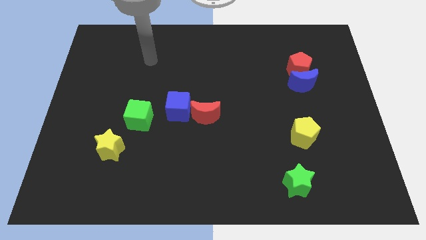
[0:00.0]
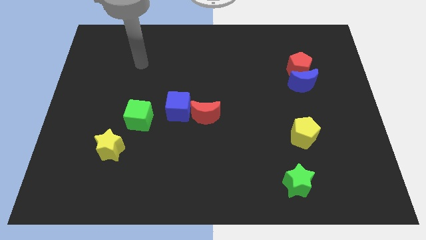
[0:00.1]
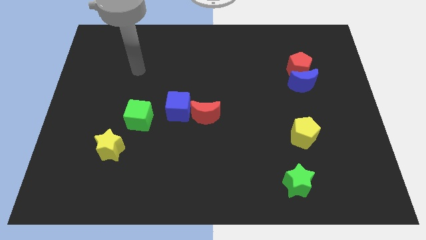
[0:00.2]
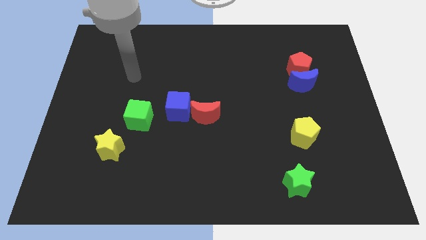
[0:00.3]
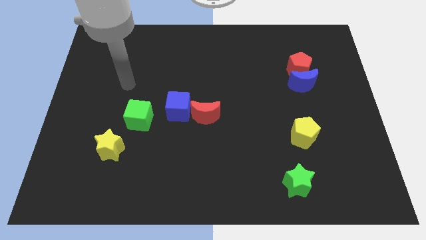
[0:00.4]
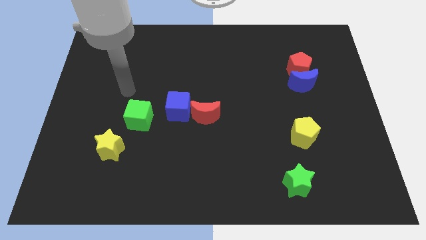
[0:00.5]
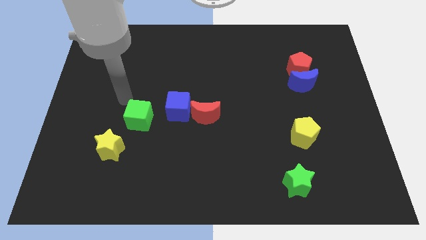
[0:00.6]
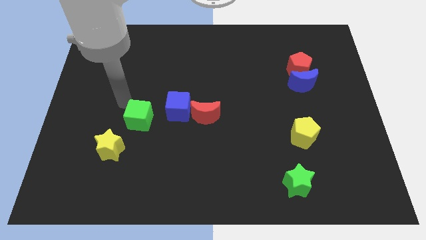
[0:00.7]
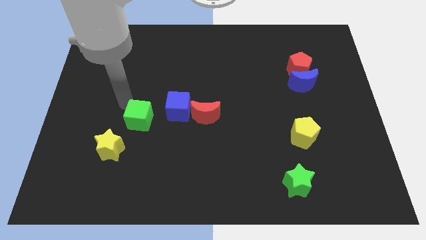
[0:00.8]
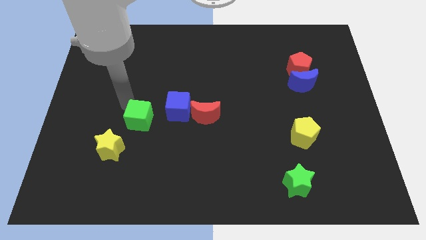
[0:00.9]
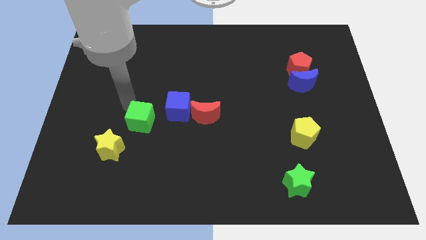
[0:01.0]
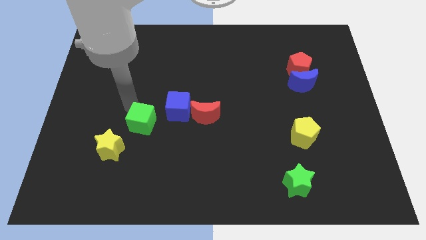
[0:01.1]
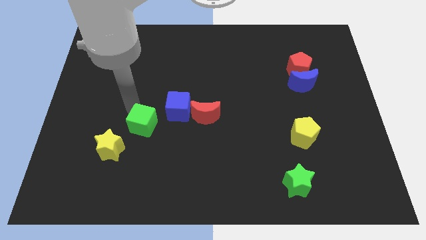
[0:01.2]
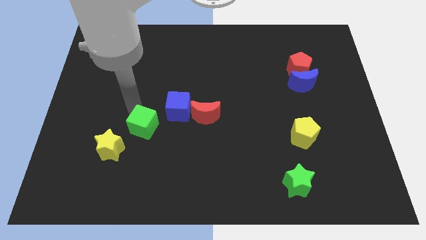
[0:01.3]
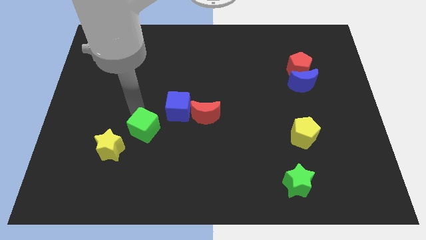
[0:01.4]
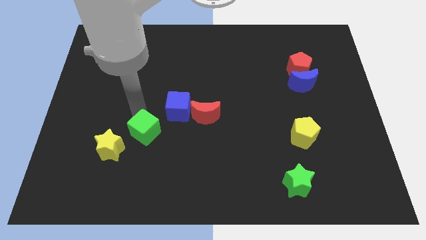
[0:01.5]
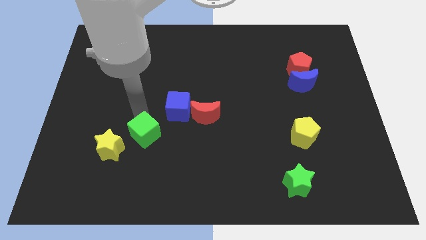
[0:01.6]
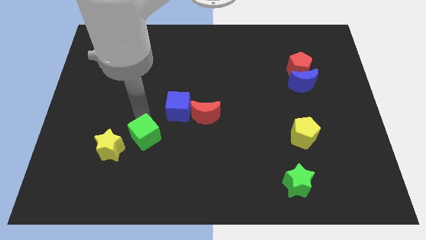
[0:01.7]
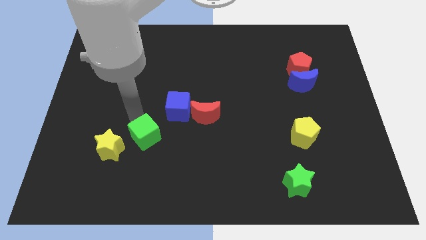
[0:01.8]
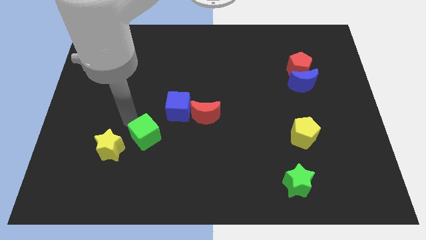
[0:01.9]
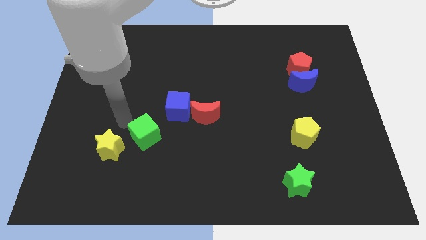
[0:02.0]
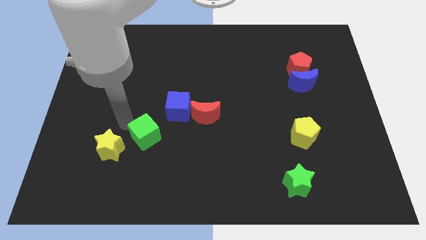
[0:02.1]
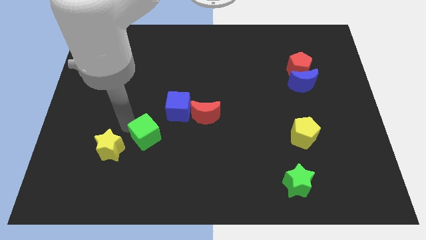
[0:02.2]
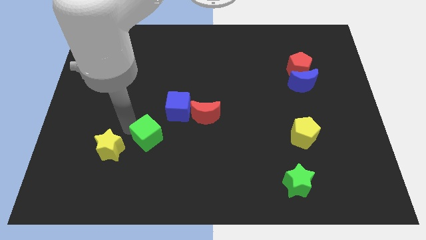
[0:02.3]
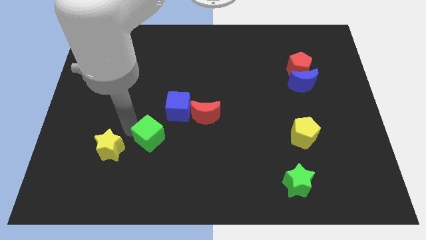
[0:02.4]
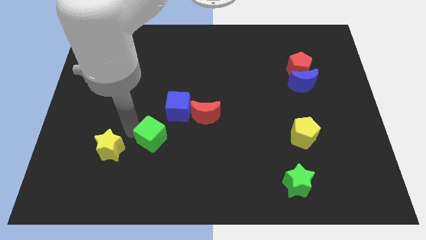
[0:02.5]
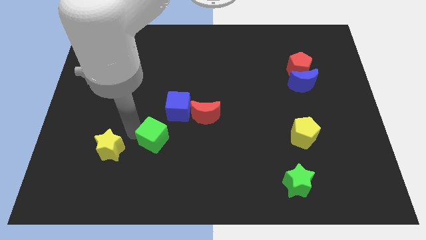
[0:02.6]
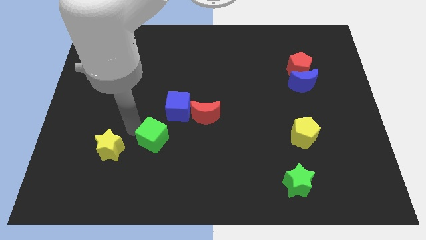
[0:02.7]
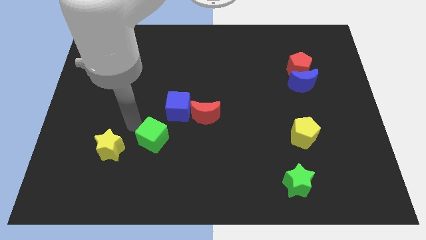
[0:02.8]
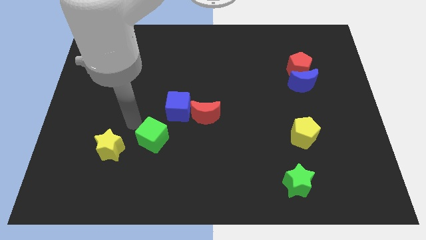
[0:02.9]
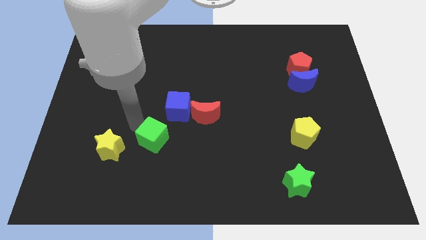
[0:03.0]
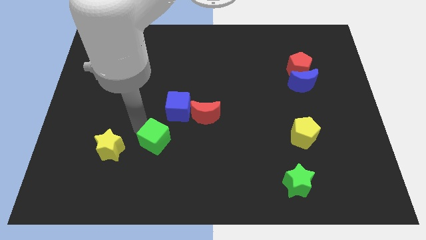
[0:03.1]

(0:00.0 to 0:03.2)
slightly move the green cube diagonally downwards and to the right

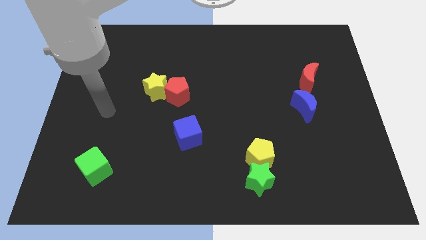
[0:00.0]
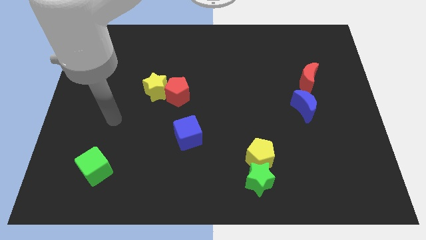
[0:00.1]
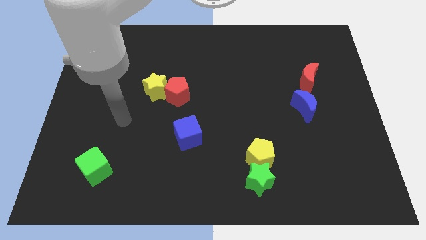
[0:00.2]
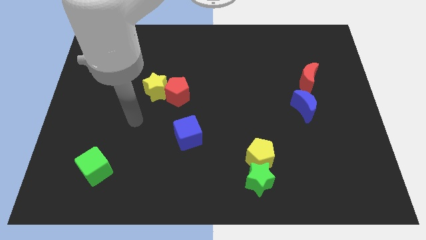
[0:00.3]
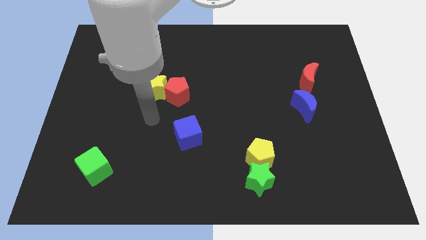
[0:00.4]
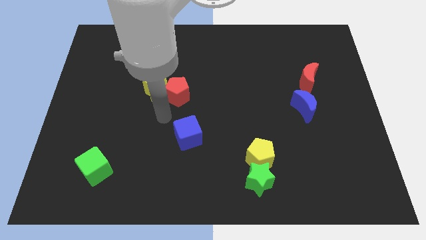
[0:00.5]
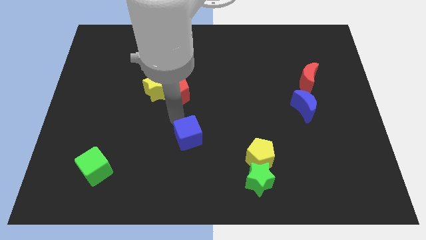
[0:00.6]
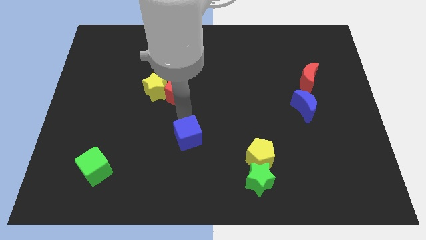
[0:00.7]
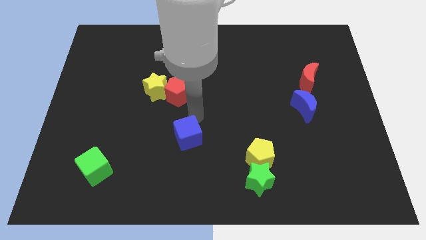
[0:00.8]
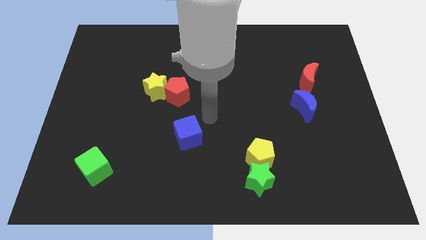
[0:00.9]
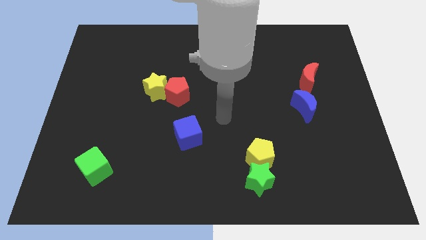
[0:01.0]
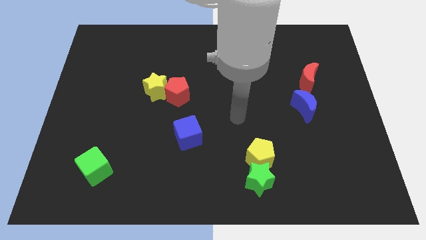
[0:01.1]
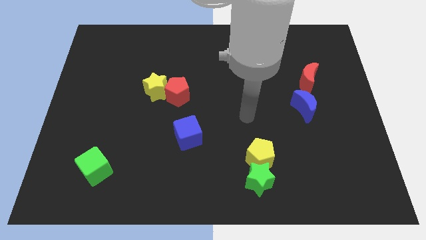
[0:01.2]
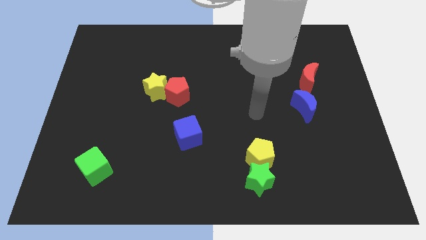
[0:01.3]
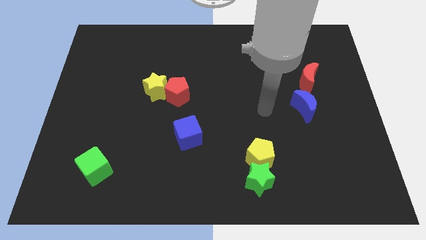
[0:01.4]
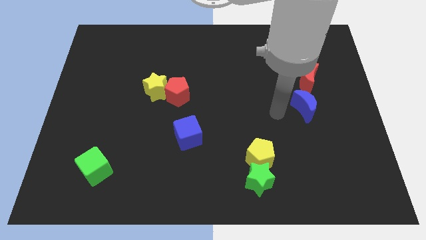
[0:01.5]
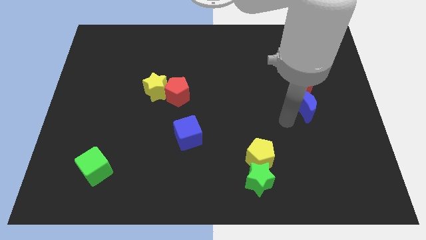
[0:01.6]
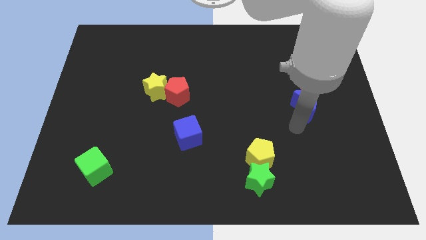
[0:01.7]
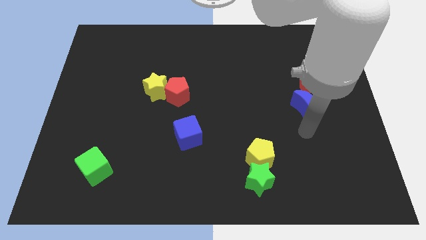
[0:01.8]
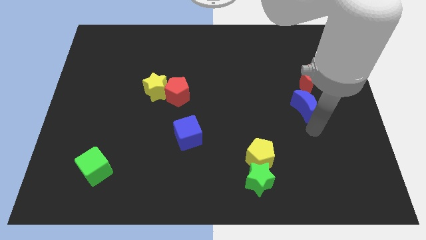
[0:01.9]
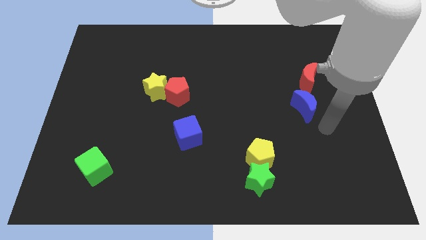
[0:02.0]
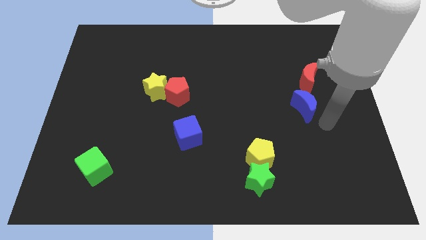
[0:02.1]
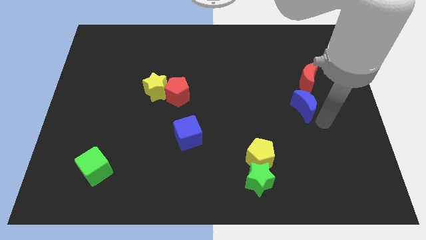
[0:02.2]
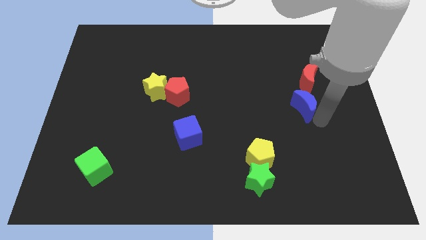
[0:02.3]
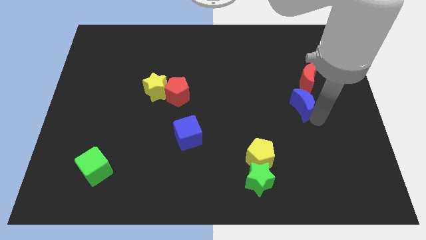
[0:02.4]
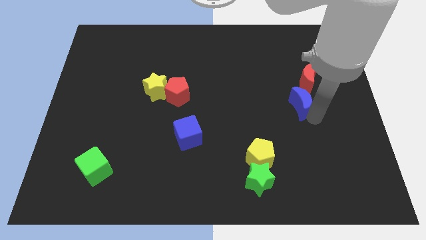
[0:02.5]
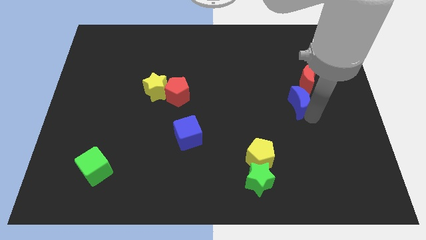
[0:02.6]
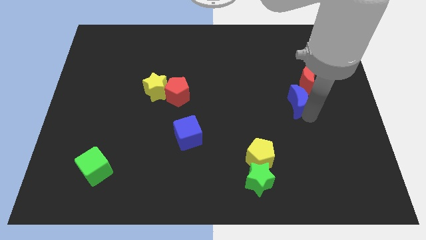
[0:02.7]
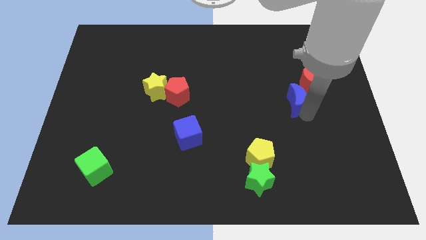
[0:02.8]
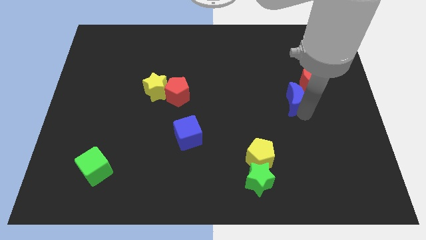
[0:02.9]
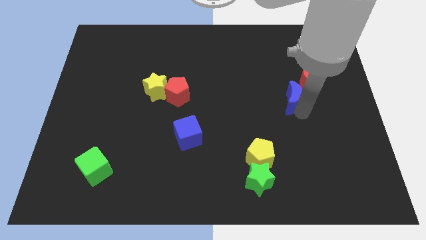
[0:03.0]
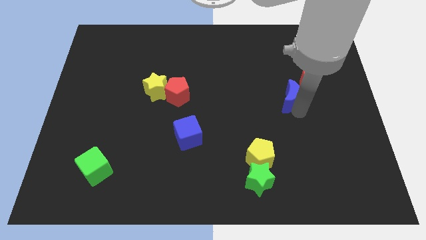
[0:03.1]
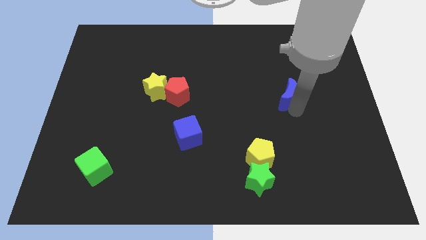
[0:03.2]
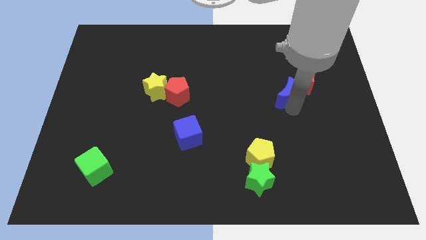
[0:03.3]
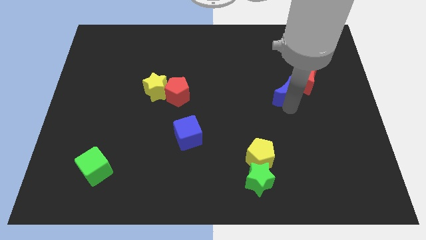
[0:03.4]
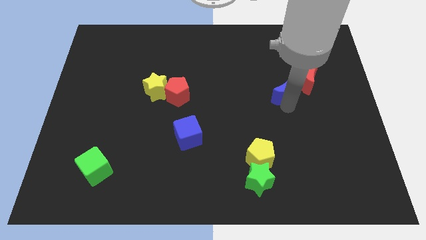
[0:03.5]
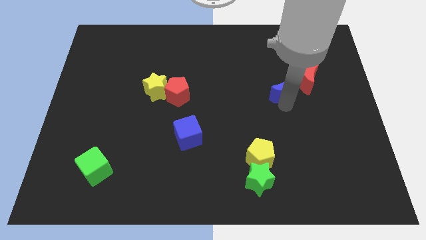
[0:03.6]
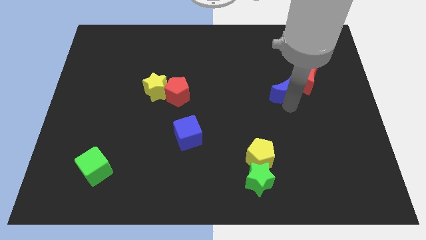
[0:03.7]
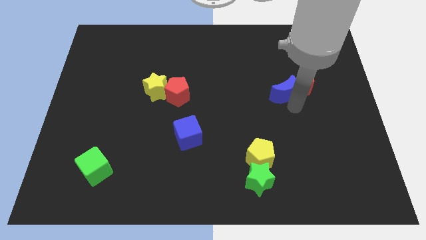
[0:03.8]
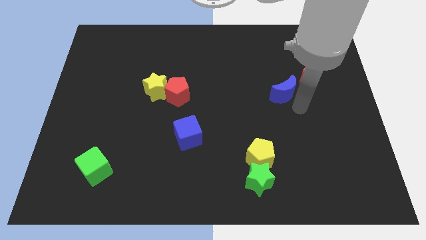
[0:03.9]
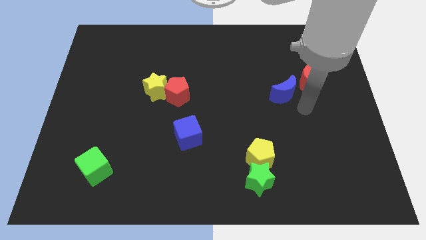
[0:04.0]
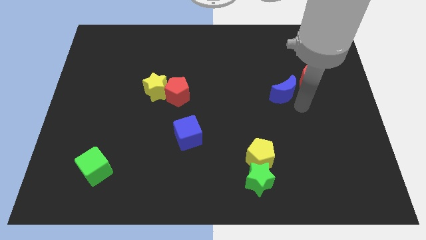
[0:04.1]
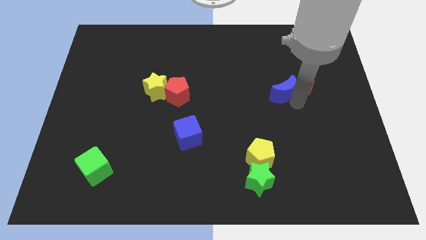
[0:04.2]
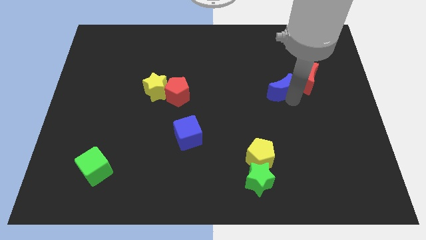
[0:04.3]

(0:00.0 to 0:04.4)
slightly move the blue moon up and left

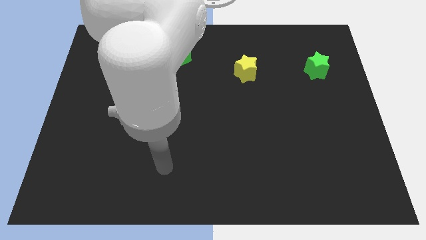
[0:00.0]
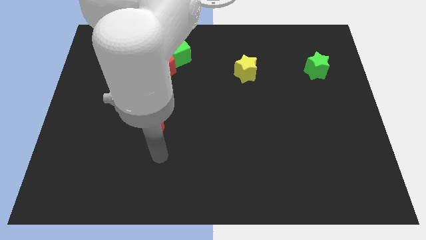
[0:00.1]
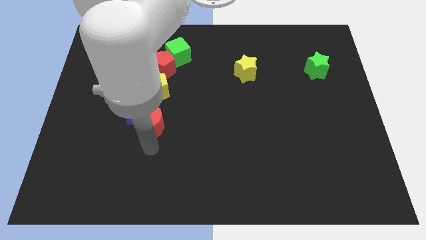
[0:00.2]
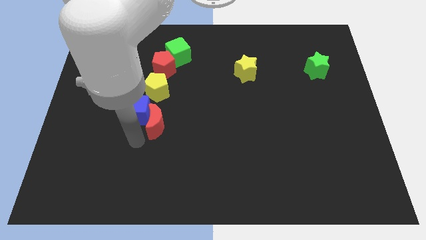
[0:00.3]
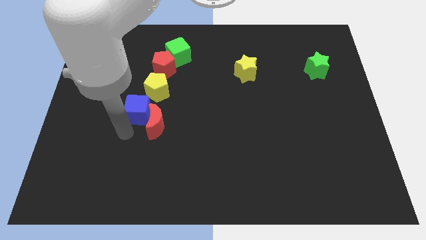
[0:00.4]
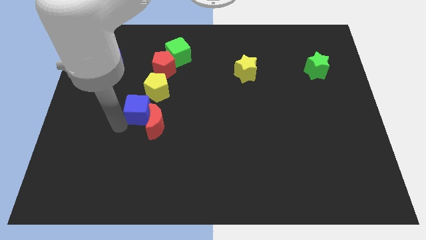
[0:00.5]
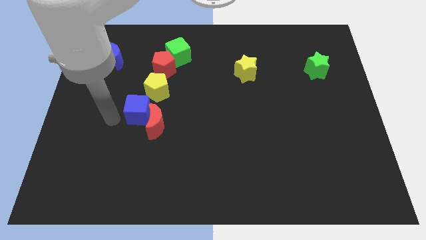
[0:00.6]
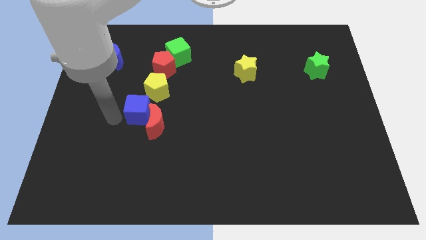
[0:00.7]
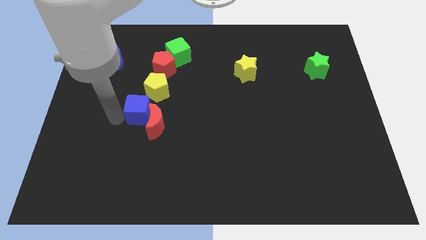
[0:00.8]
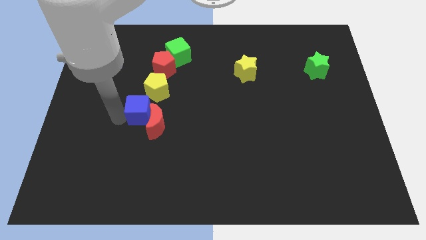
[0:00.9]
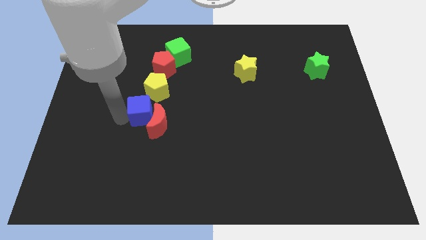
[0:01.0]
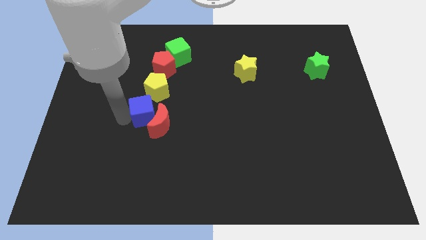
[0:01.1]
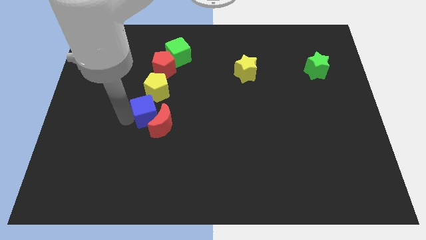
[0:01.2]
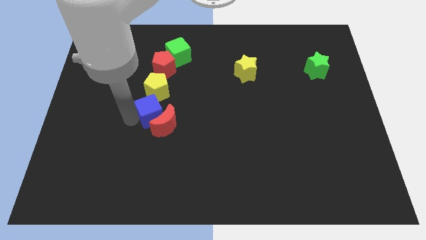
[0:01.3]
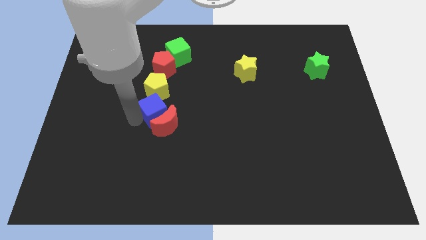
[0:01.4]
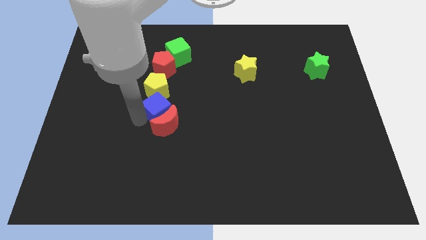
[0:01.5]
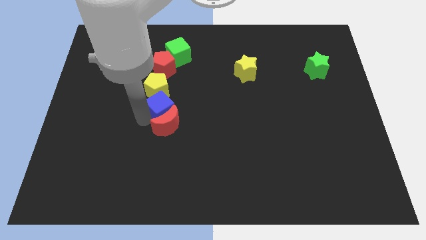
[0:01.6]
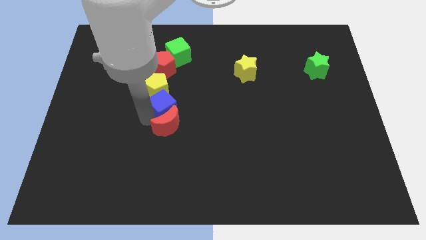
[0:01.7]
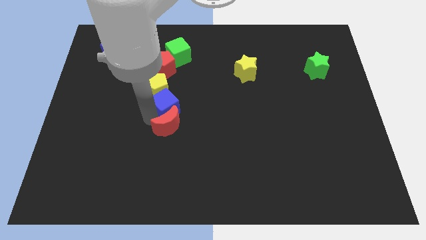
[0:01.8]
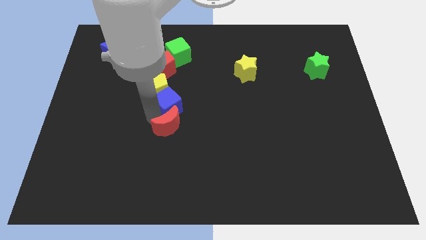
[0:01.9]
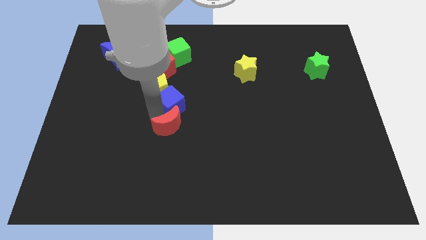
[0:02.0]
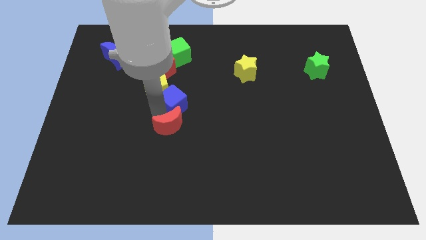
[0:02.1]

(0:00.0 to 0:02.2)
push the blue cube upwards and right somewhat
